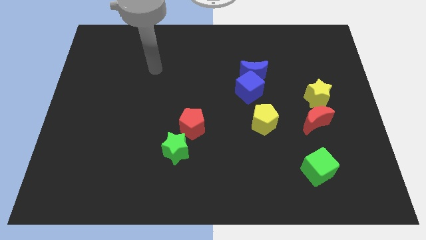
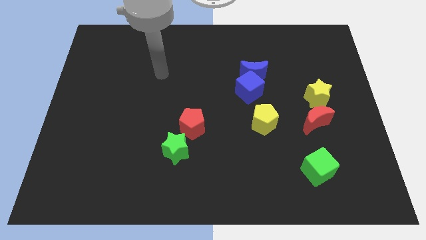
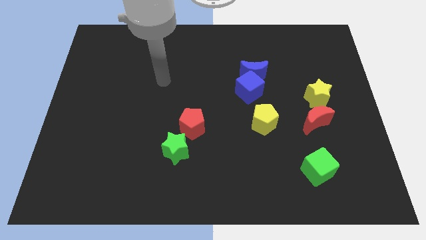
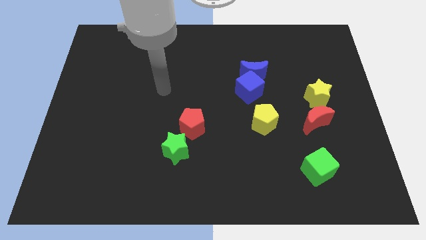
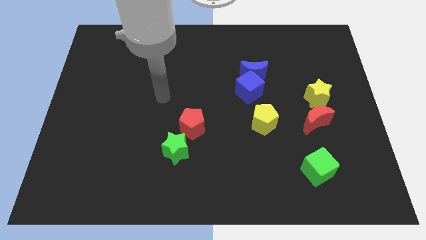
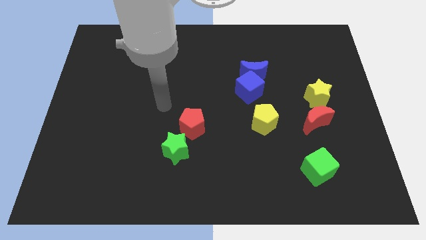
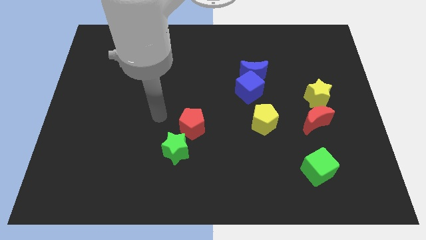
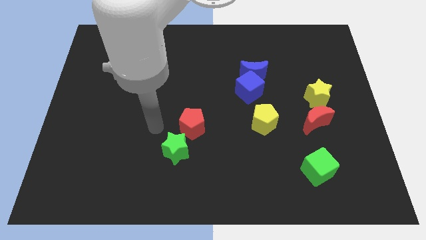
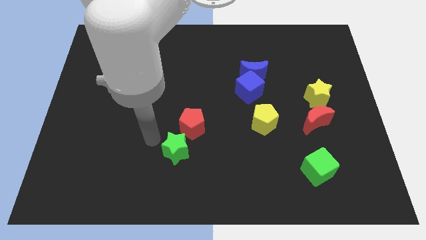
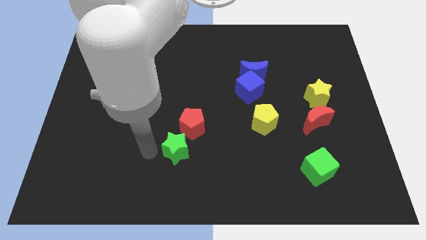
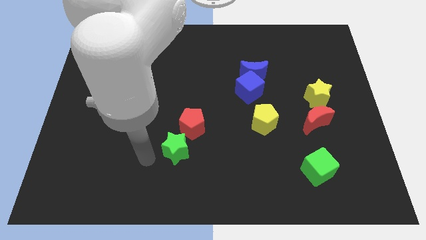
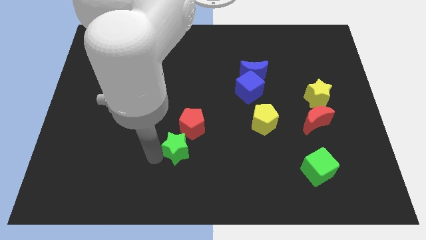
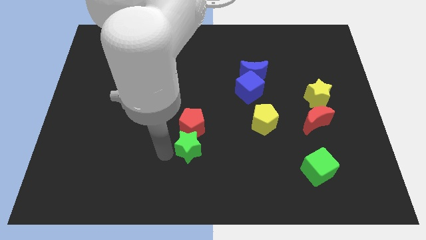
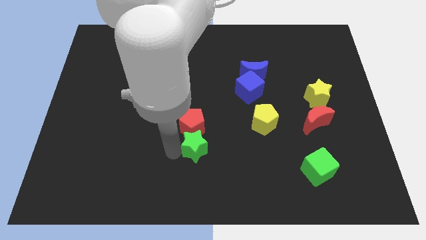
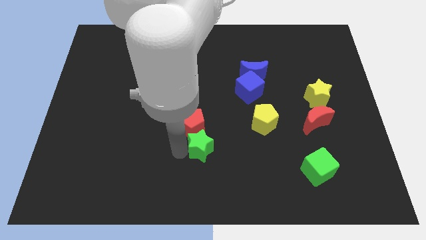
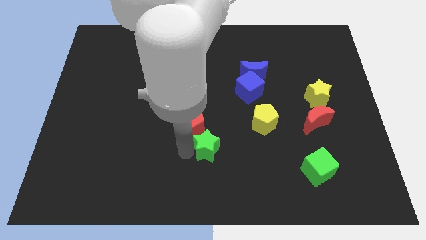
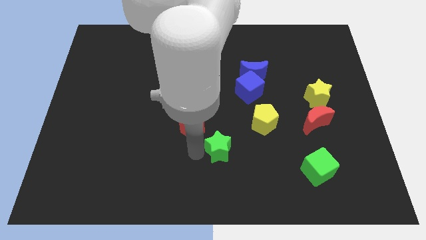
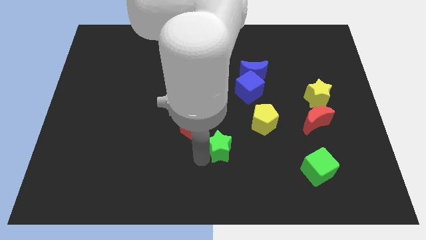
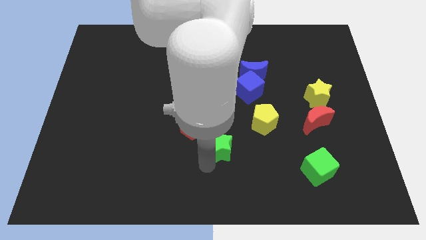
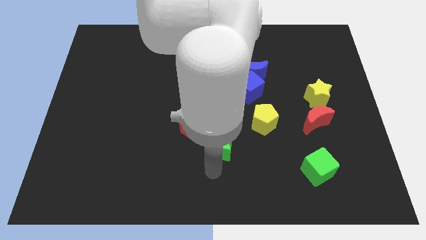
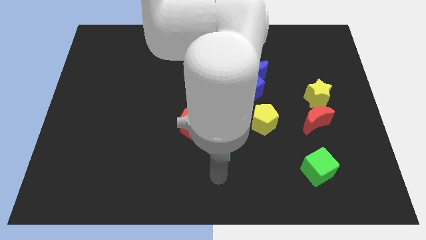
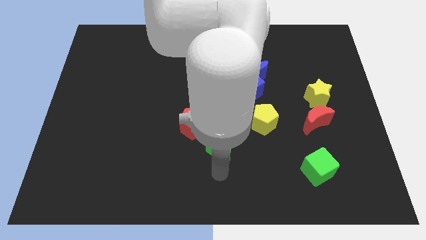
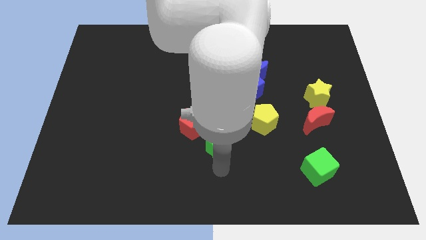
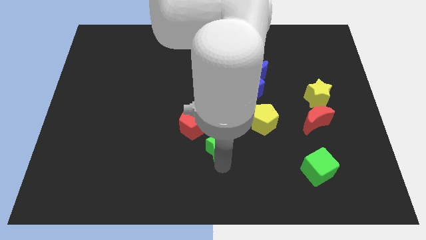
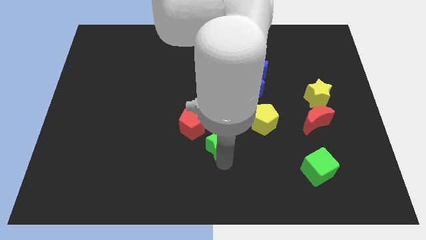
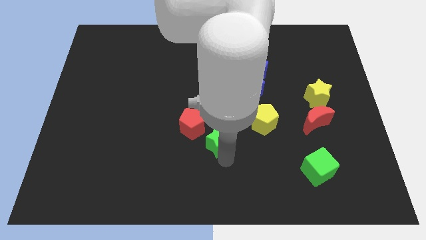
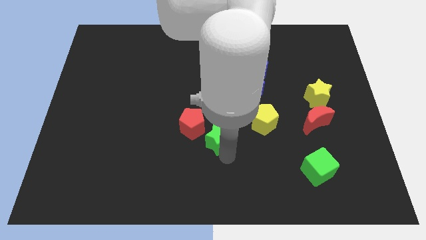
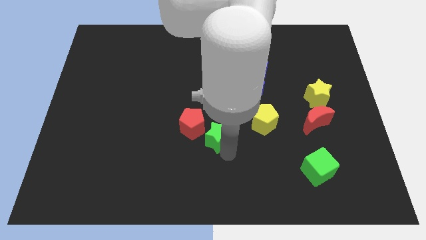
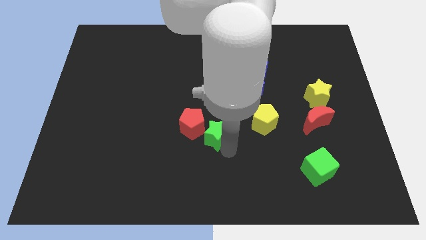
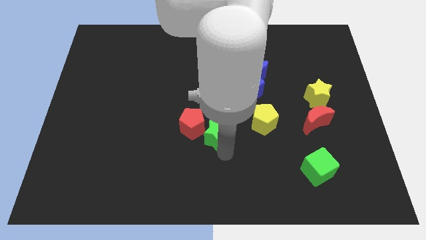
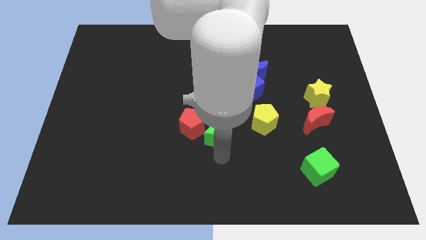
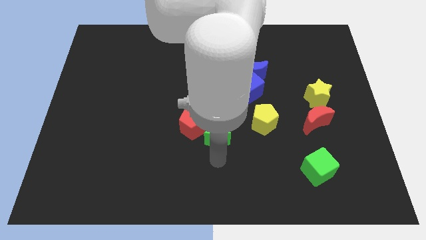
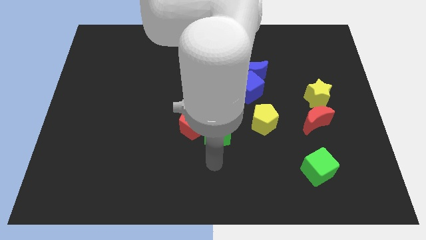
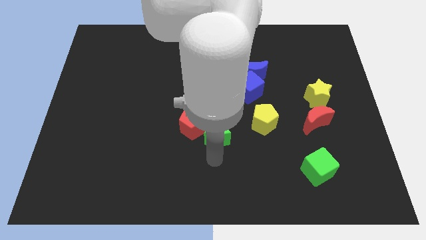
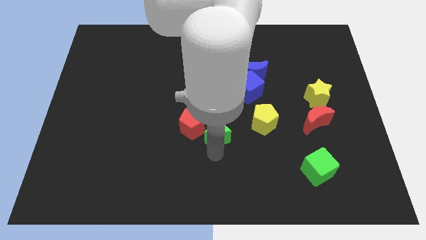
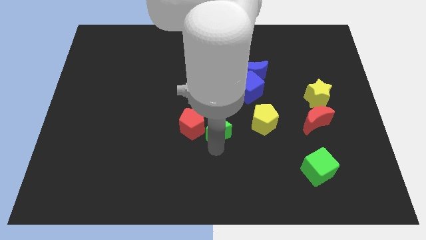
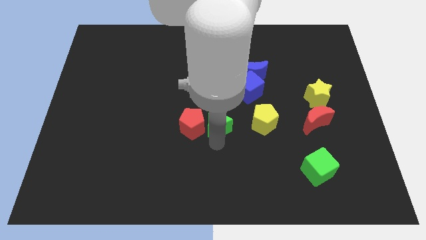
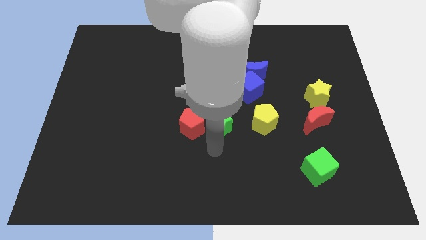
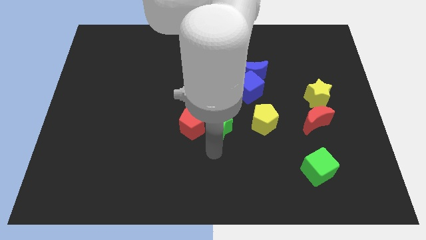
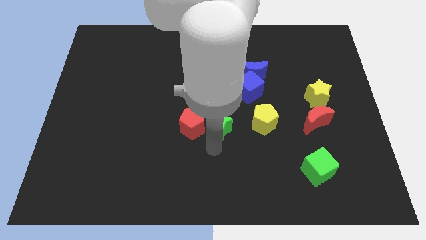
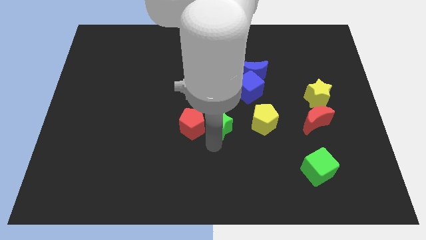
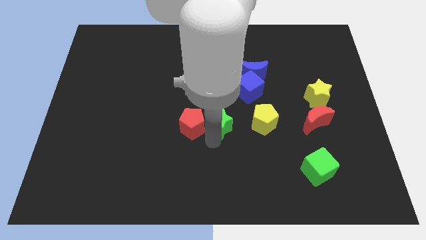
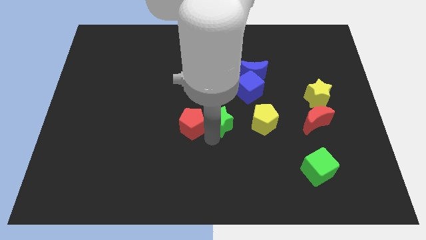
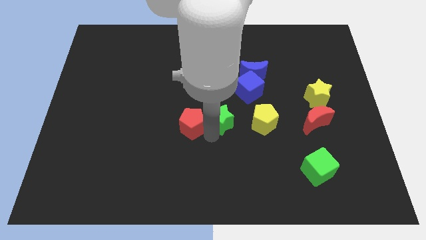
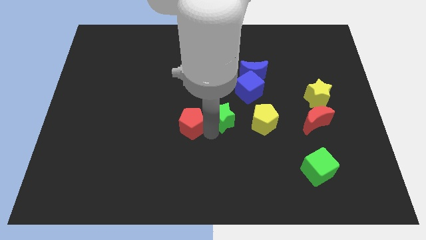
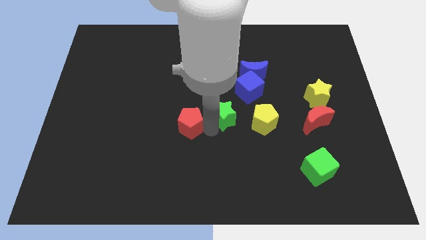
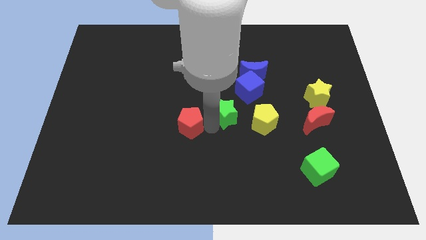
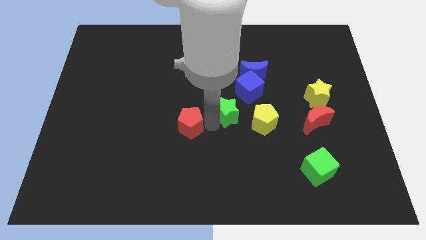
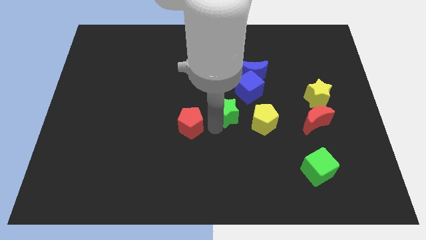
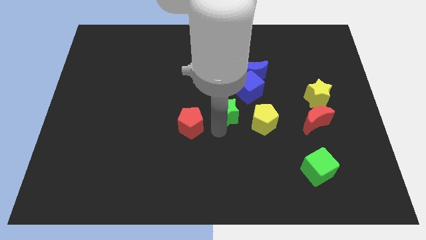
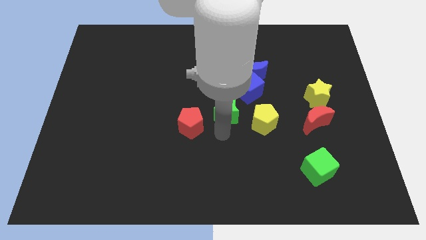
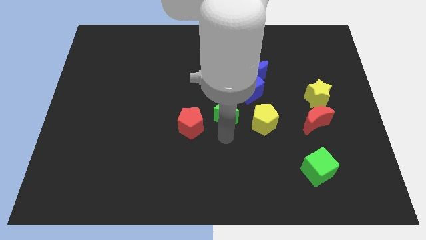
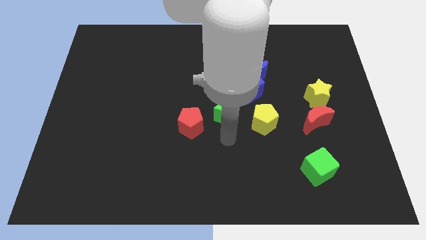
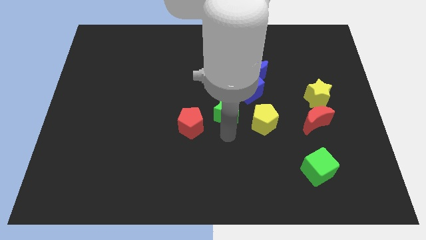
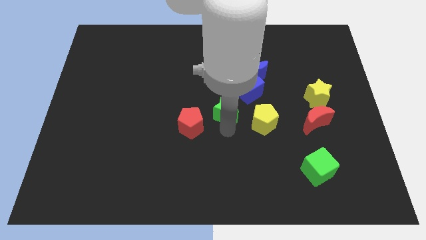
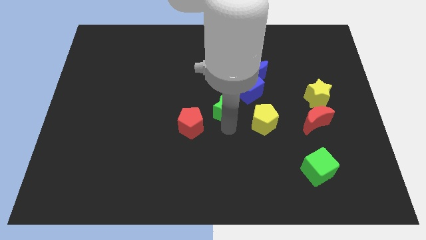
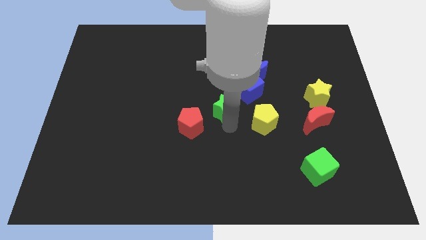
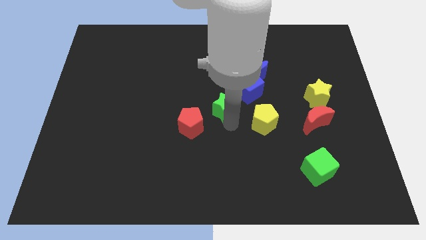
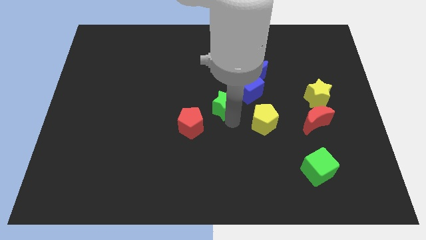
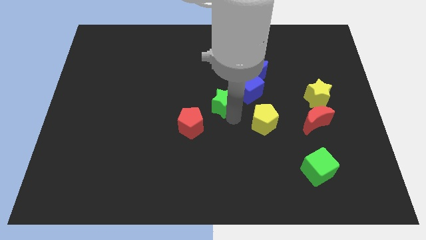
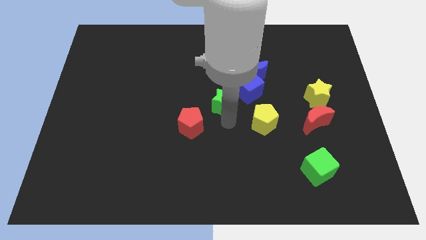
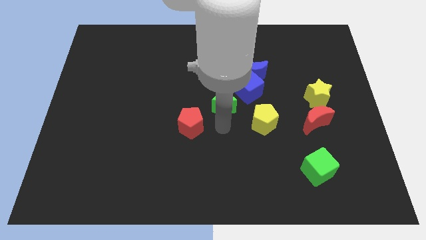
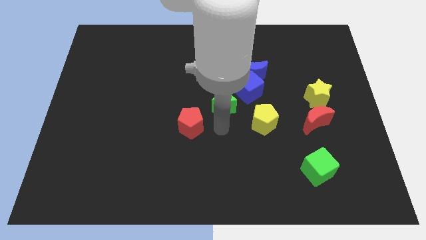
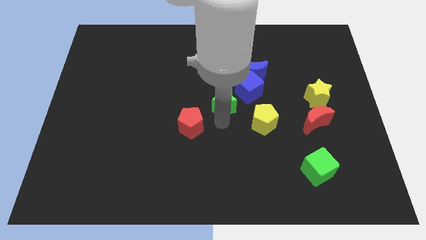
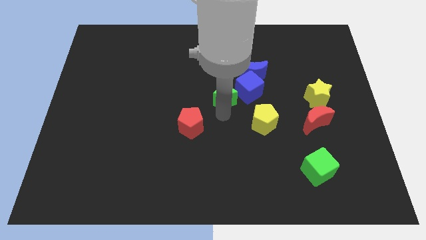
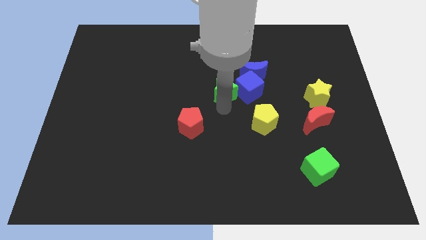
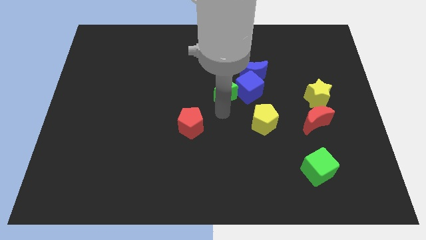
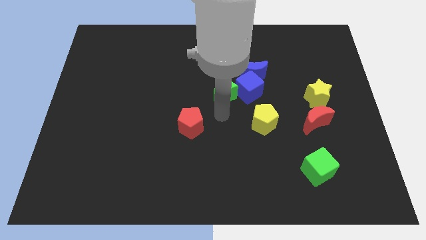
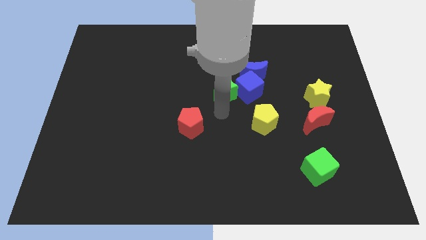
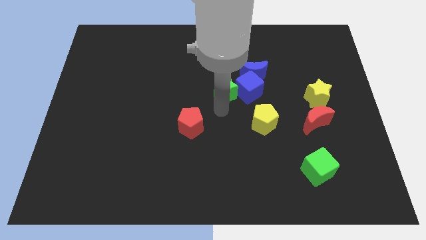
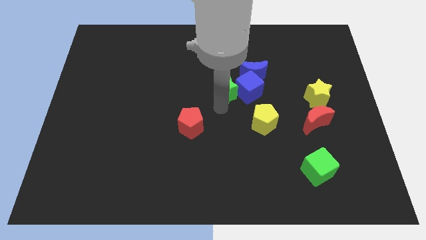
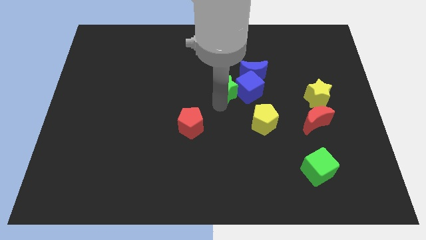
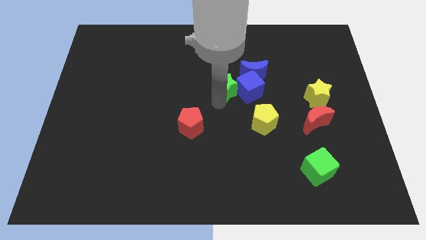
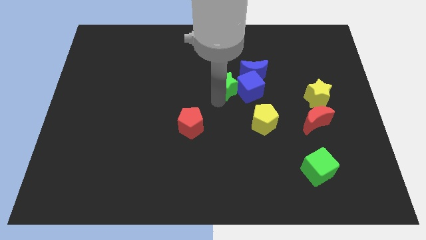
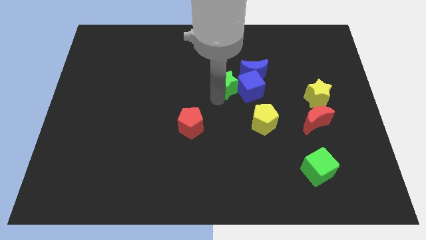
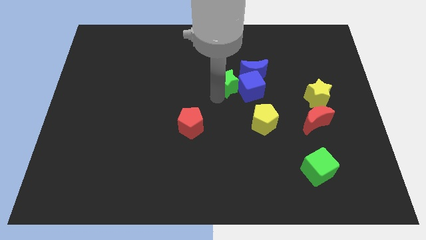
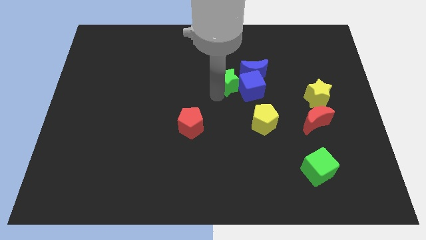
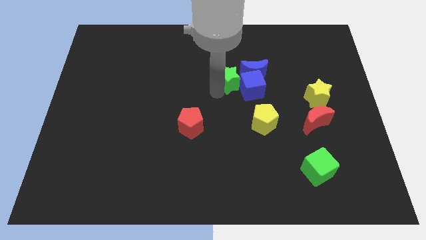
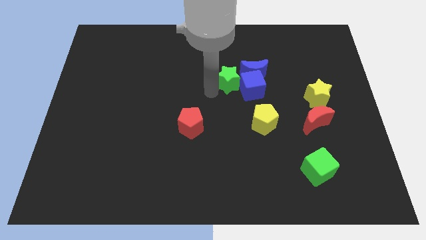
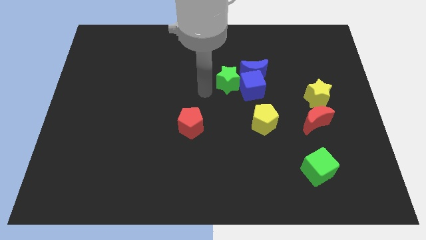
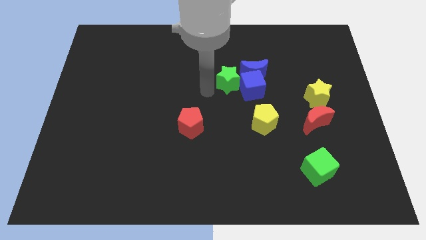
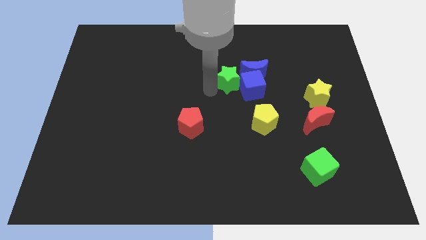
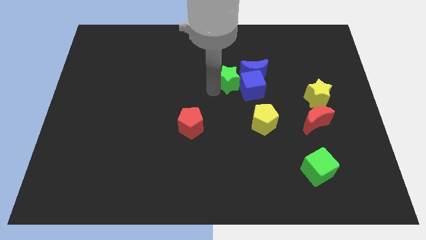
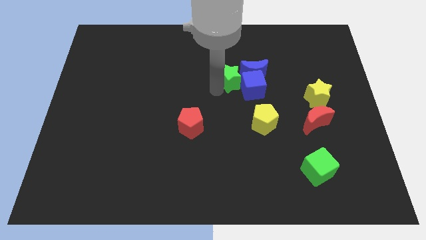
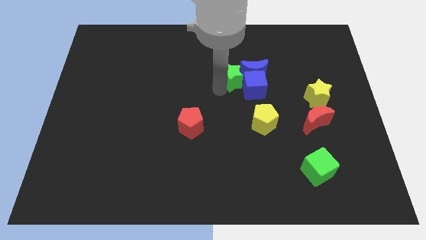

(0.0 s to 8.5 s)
put the green star towards the blue moon
